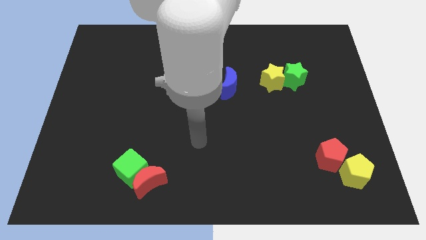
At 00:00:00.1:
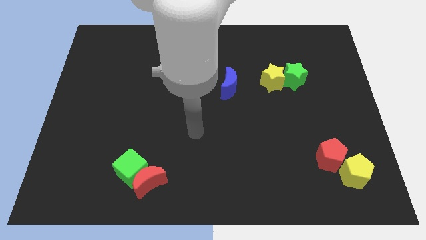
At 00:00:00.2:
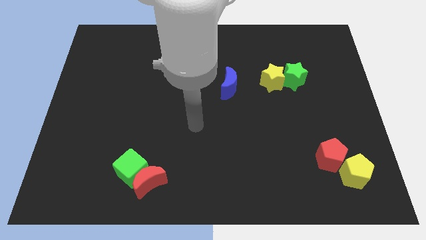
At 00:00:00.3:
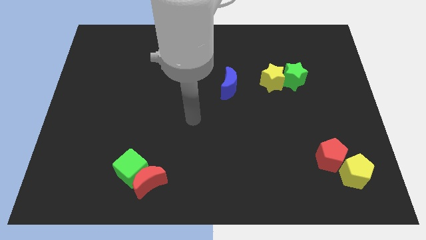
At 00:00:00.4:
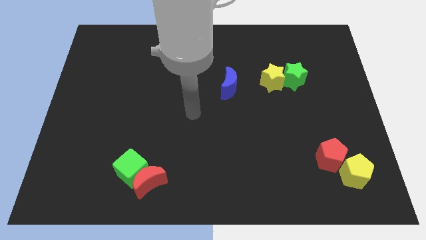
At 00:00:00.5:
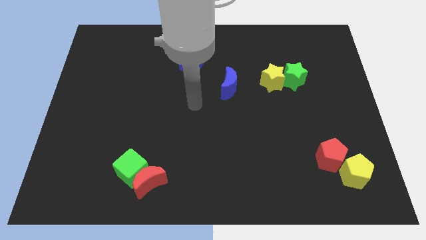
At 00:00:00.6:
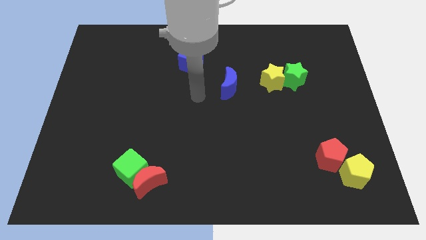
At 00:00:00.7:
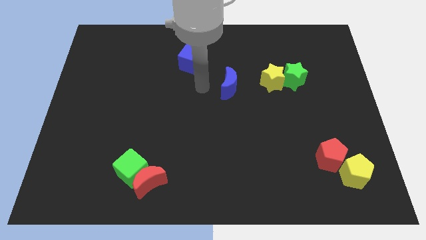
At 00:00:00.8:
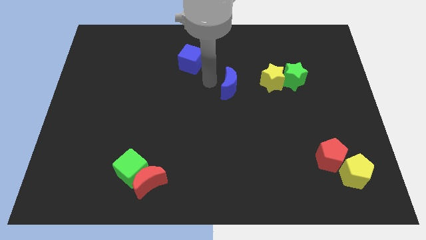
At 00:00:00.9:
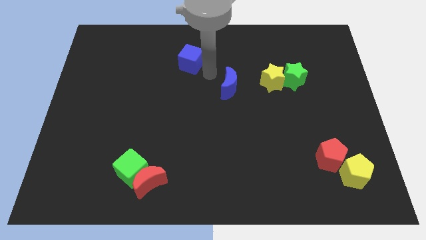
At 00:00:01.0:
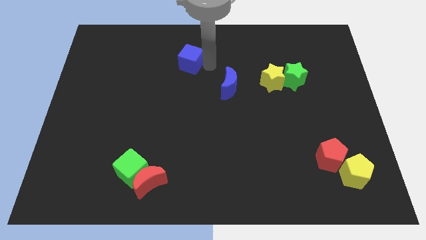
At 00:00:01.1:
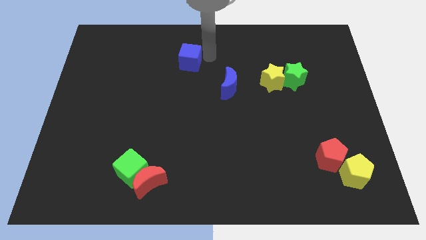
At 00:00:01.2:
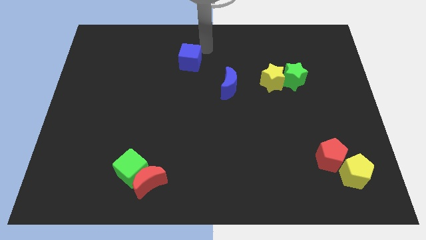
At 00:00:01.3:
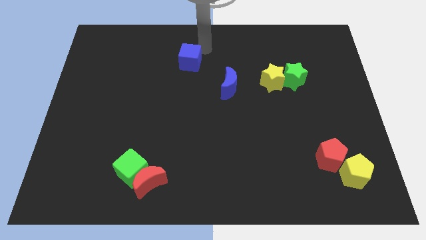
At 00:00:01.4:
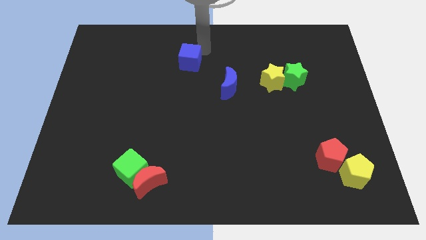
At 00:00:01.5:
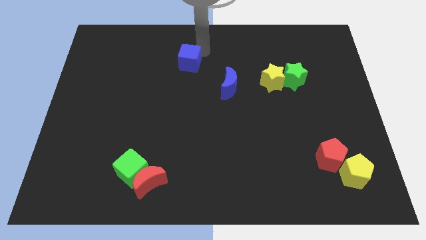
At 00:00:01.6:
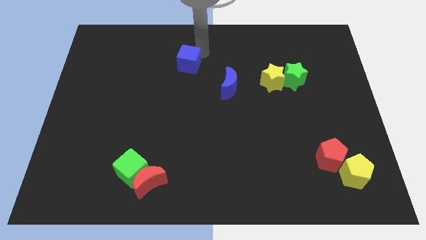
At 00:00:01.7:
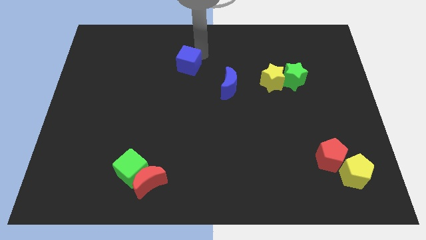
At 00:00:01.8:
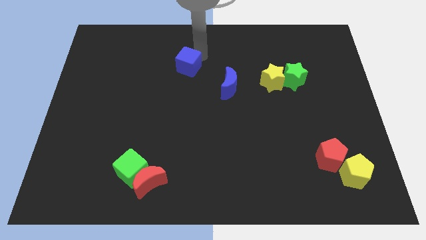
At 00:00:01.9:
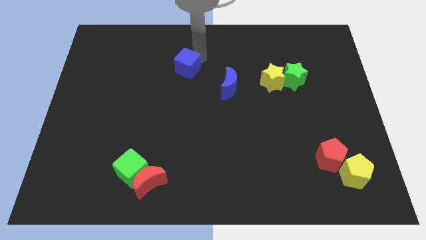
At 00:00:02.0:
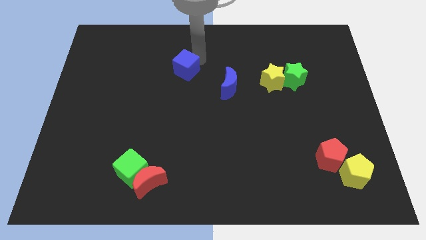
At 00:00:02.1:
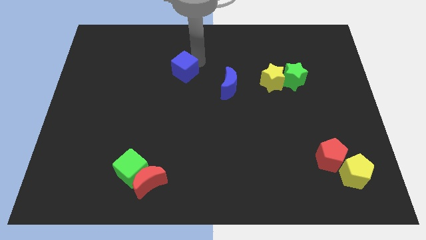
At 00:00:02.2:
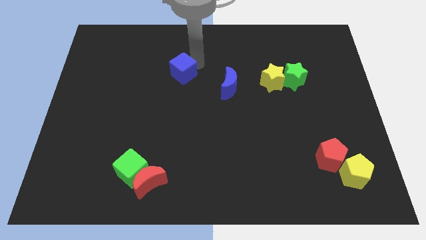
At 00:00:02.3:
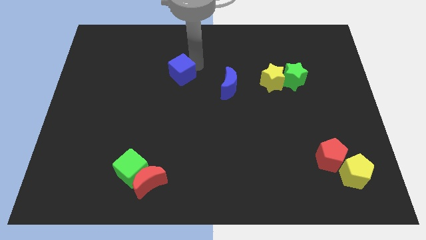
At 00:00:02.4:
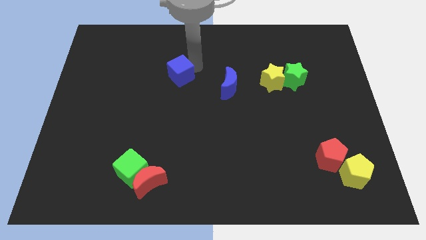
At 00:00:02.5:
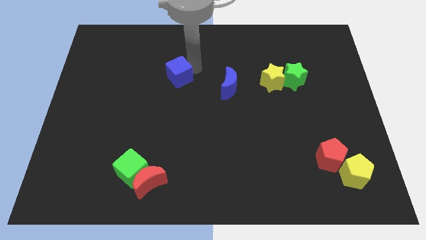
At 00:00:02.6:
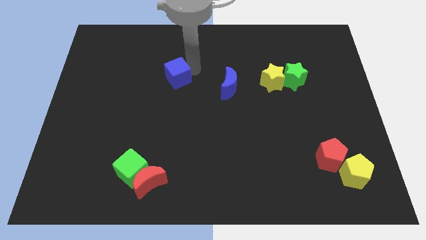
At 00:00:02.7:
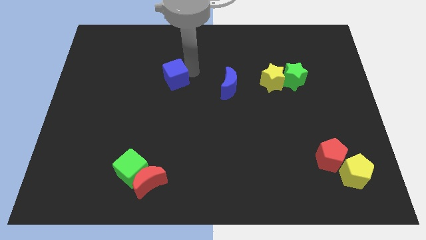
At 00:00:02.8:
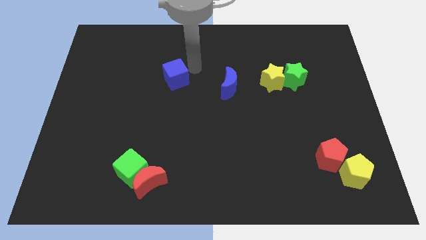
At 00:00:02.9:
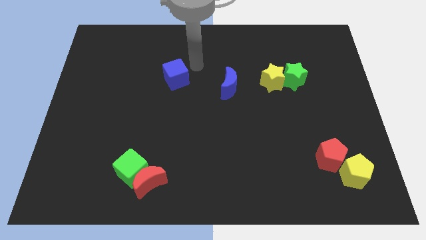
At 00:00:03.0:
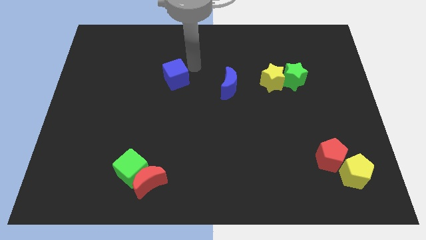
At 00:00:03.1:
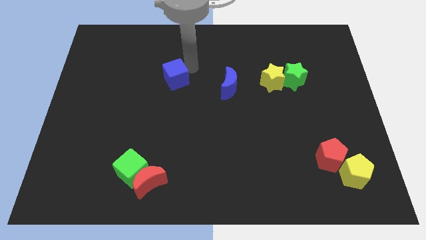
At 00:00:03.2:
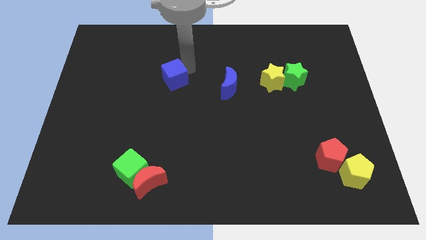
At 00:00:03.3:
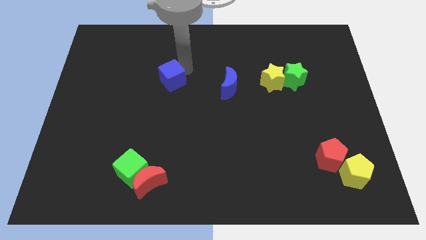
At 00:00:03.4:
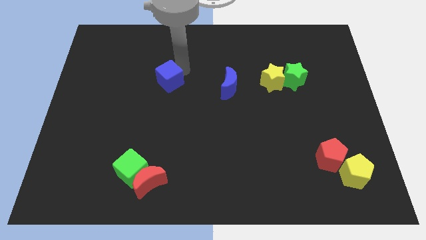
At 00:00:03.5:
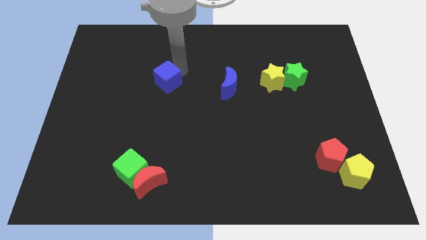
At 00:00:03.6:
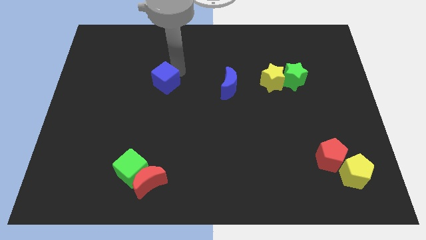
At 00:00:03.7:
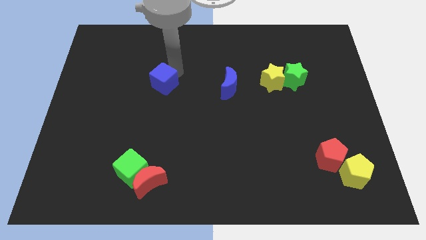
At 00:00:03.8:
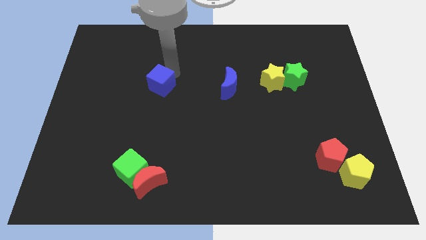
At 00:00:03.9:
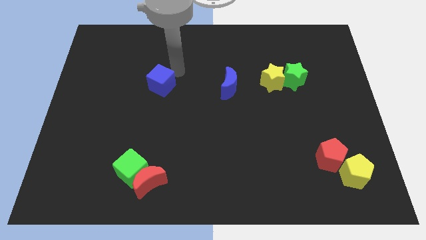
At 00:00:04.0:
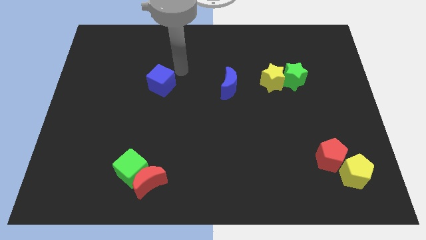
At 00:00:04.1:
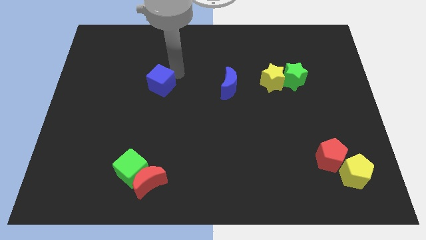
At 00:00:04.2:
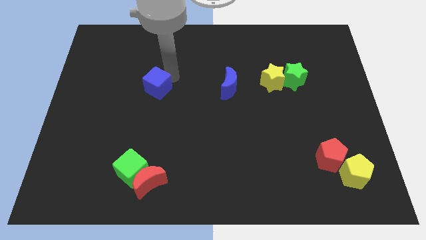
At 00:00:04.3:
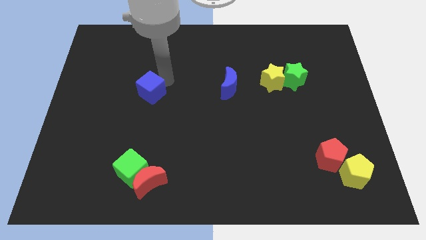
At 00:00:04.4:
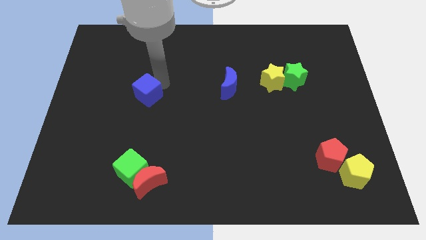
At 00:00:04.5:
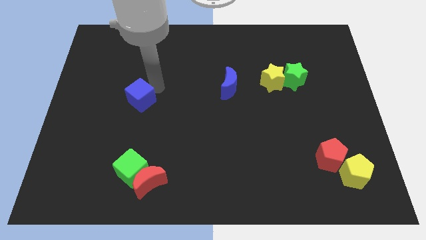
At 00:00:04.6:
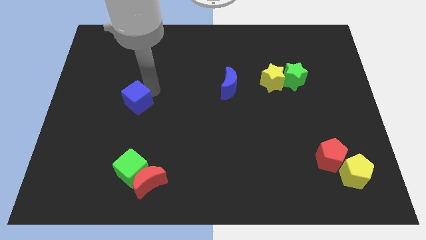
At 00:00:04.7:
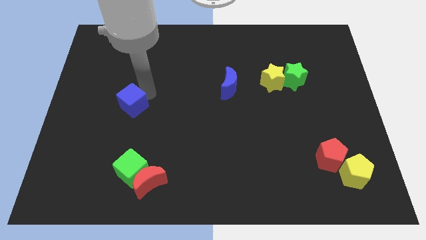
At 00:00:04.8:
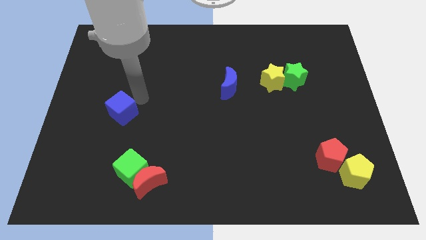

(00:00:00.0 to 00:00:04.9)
slide the blue cube downwards and to the left diagonally

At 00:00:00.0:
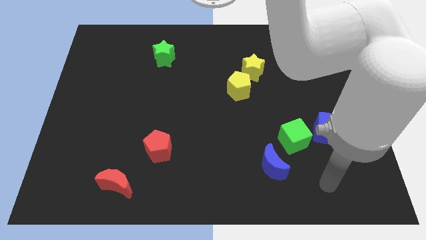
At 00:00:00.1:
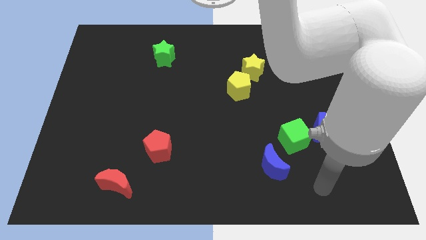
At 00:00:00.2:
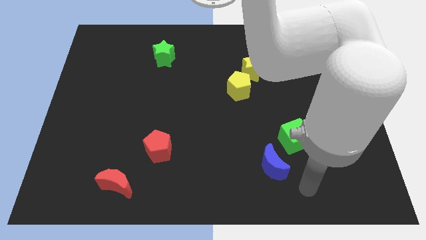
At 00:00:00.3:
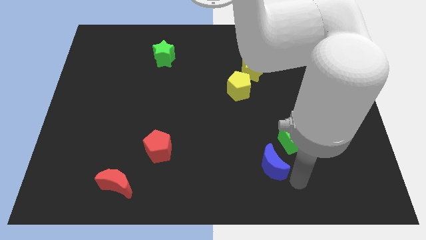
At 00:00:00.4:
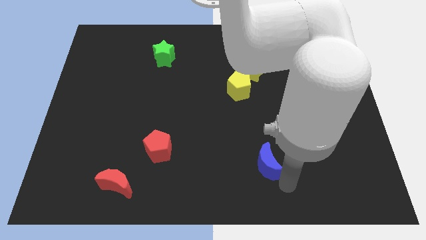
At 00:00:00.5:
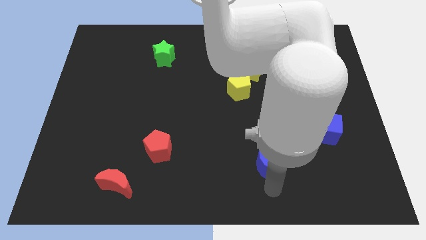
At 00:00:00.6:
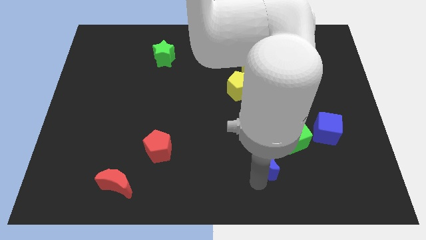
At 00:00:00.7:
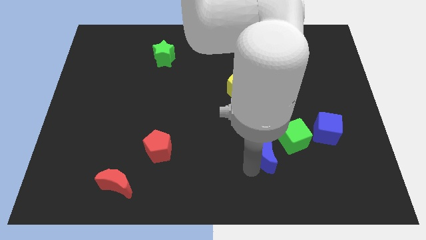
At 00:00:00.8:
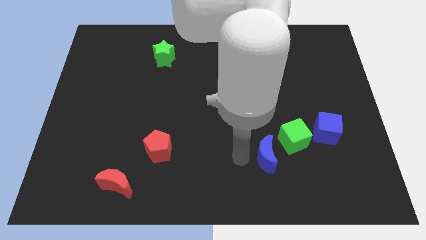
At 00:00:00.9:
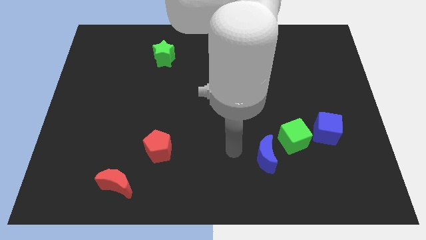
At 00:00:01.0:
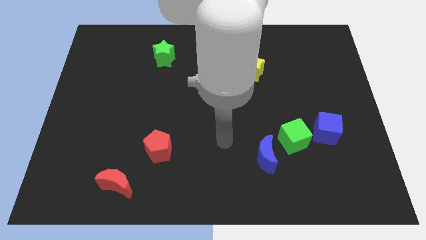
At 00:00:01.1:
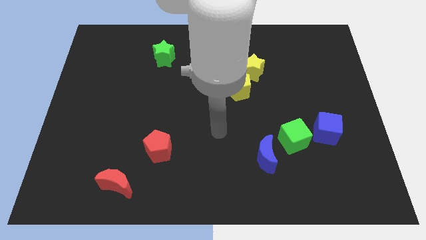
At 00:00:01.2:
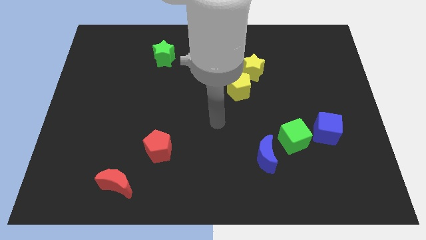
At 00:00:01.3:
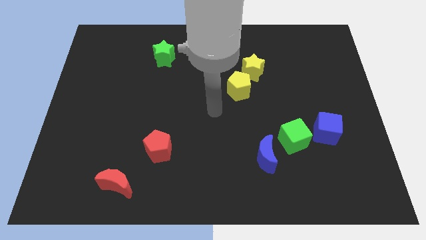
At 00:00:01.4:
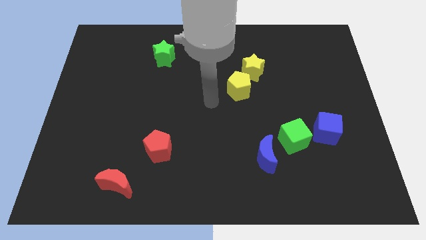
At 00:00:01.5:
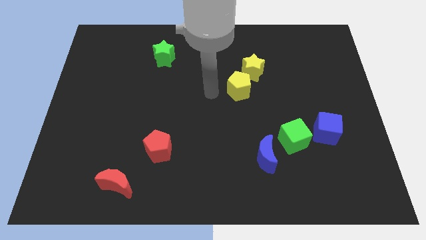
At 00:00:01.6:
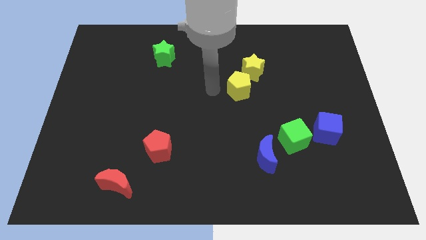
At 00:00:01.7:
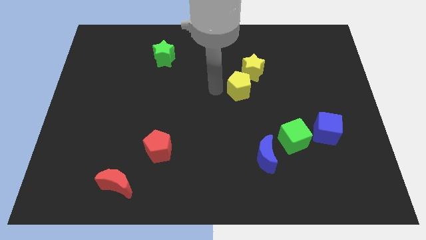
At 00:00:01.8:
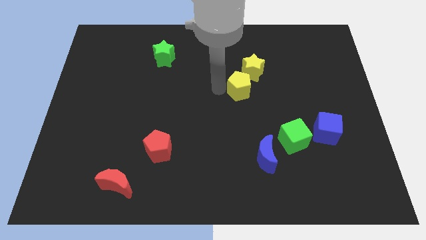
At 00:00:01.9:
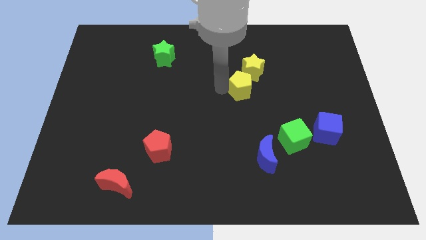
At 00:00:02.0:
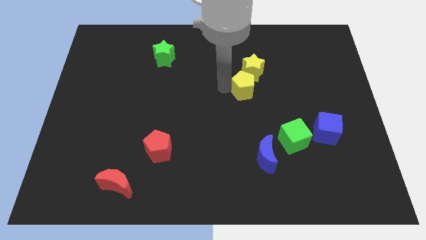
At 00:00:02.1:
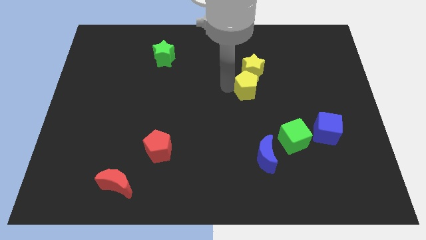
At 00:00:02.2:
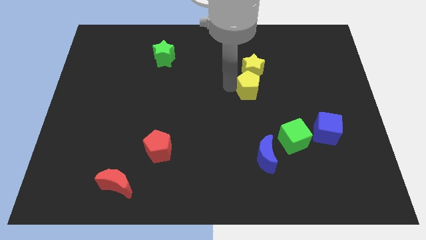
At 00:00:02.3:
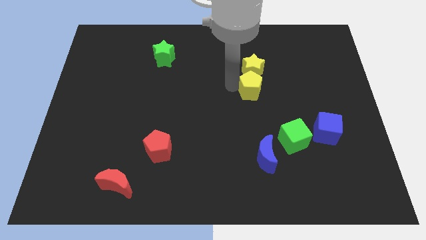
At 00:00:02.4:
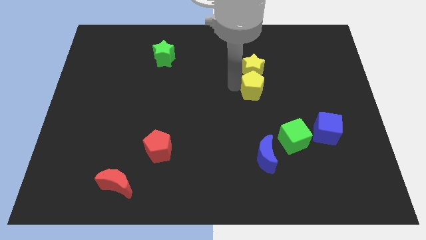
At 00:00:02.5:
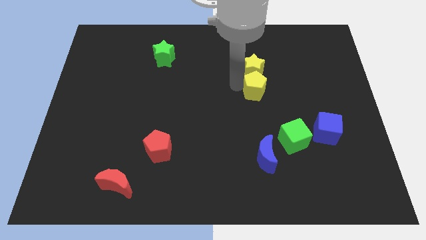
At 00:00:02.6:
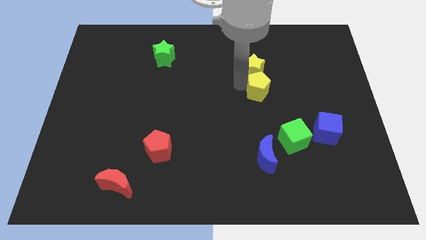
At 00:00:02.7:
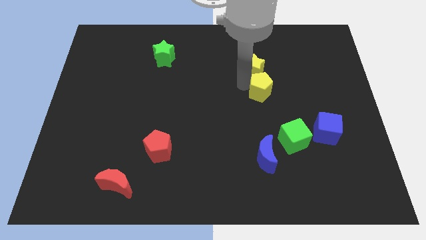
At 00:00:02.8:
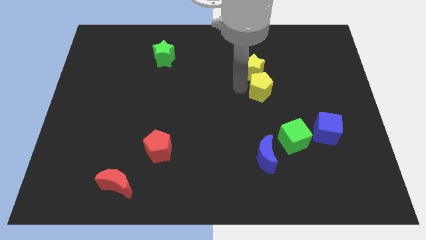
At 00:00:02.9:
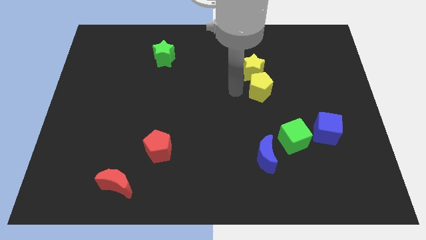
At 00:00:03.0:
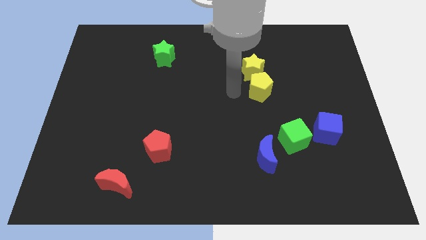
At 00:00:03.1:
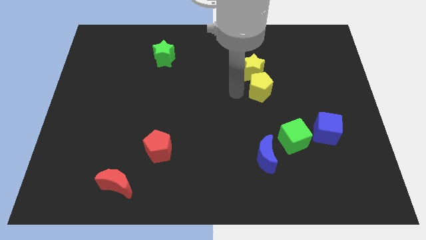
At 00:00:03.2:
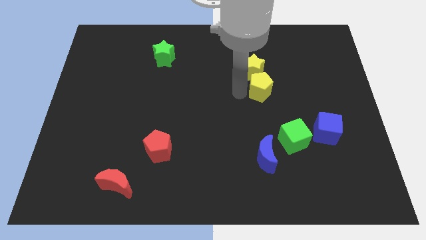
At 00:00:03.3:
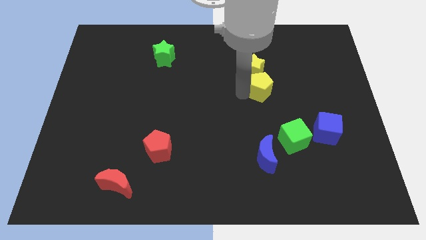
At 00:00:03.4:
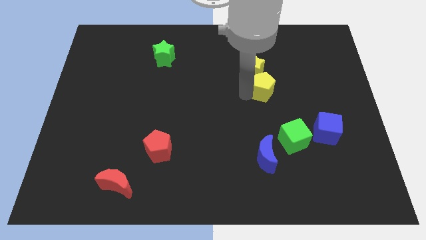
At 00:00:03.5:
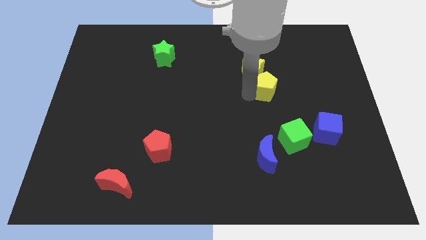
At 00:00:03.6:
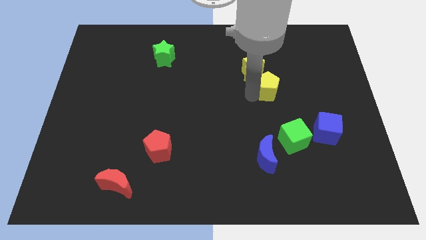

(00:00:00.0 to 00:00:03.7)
slide the yellow pentagon right a little bit
